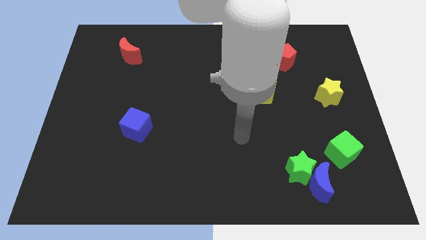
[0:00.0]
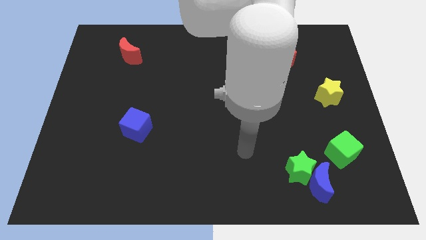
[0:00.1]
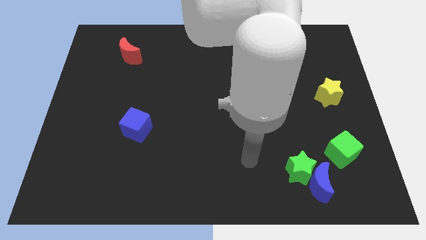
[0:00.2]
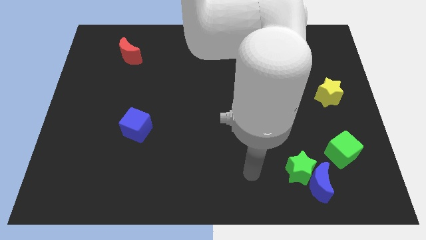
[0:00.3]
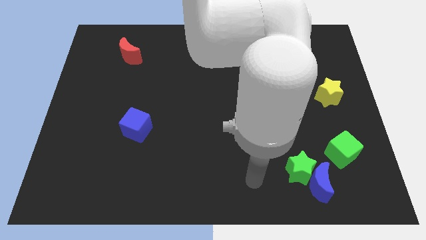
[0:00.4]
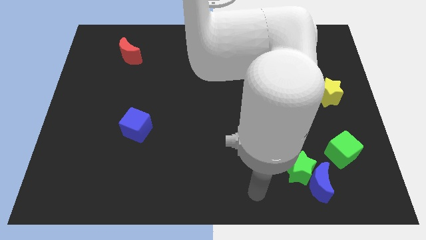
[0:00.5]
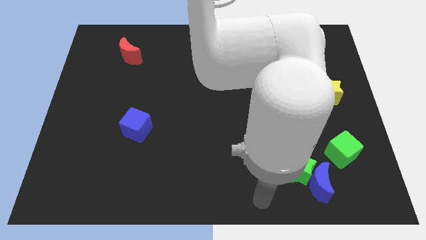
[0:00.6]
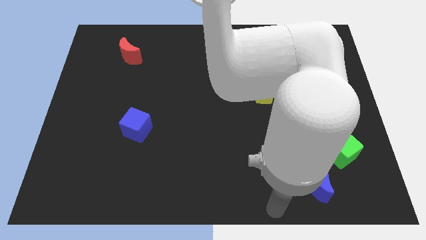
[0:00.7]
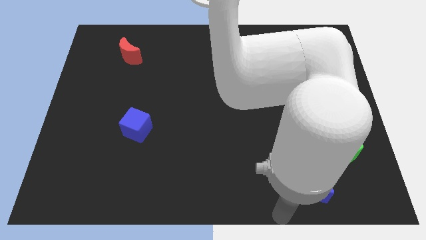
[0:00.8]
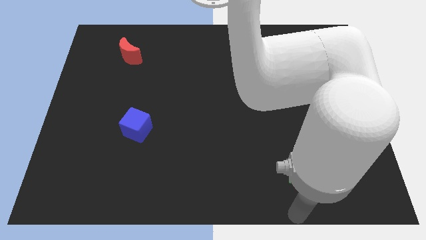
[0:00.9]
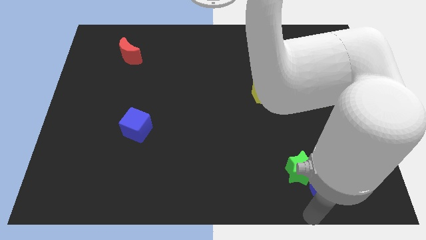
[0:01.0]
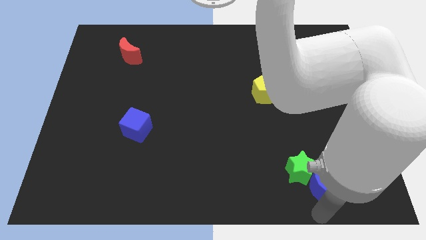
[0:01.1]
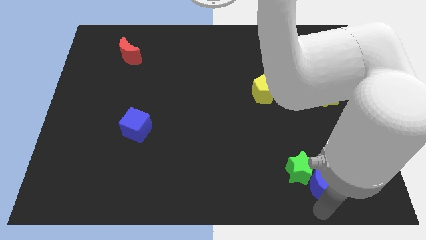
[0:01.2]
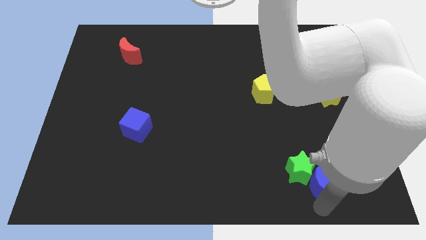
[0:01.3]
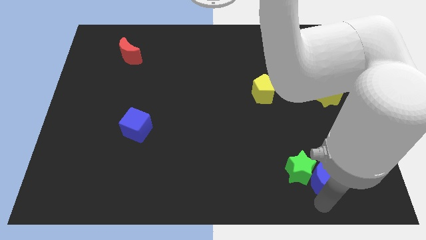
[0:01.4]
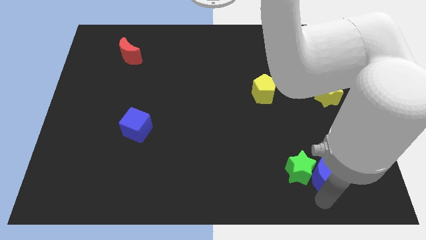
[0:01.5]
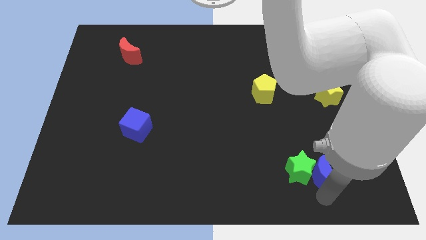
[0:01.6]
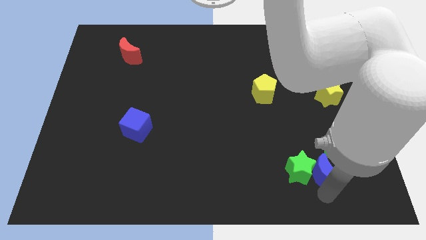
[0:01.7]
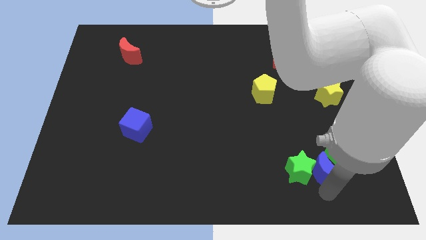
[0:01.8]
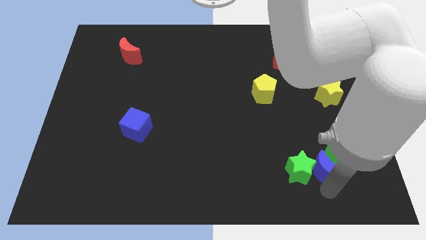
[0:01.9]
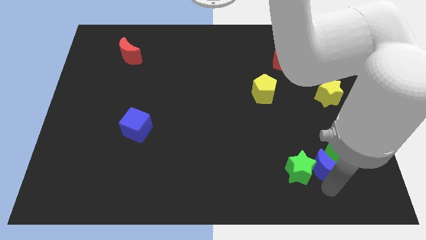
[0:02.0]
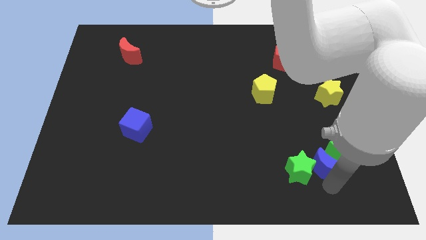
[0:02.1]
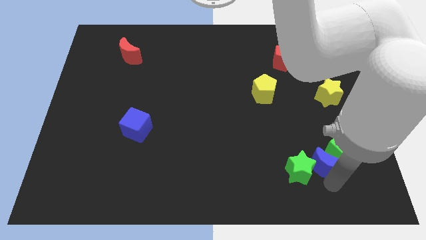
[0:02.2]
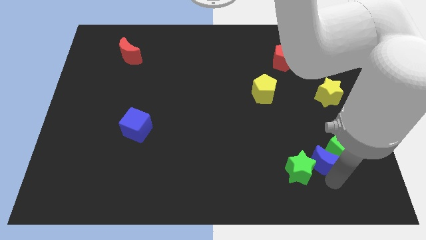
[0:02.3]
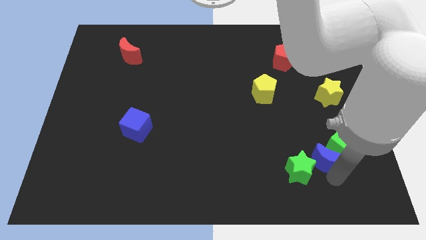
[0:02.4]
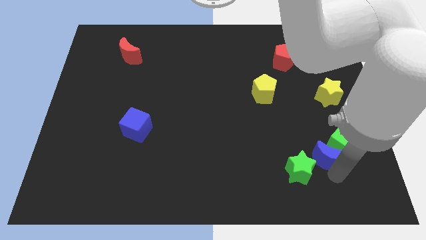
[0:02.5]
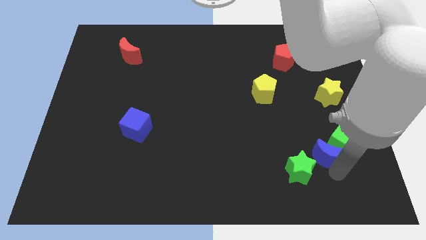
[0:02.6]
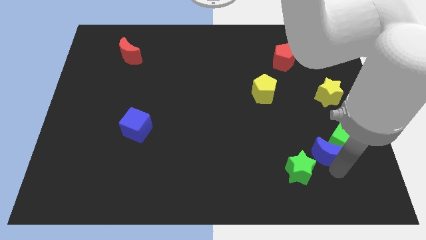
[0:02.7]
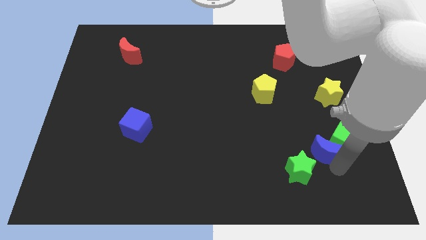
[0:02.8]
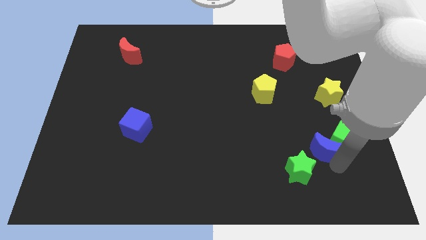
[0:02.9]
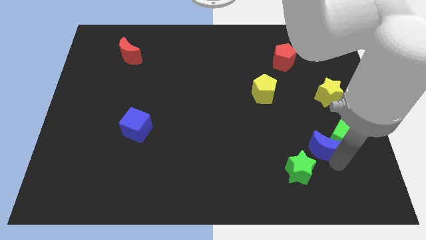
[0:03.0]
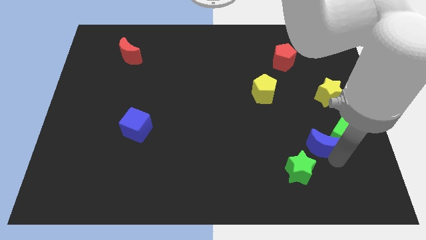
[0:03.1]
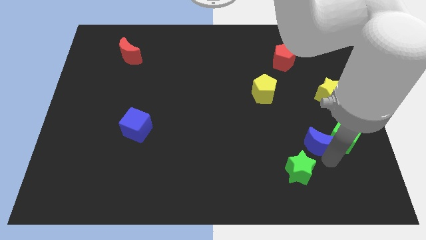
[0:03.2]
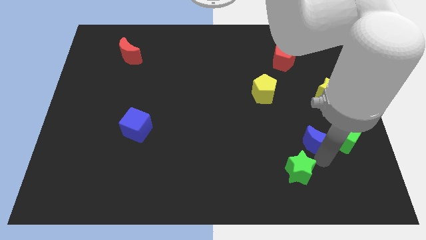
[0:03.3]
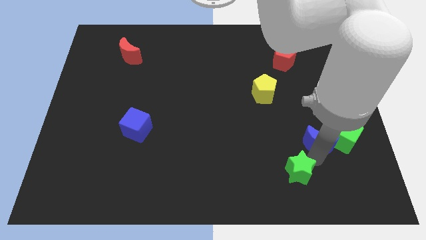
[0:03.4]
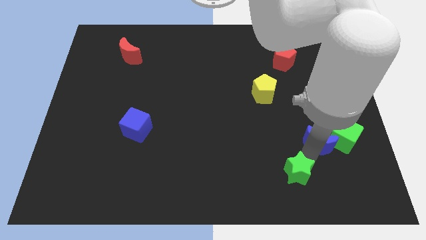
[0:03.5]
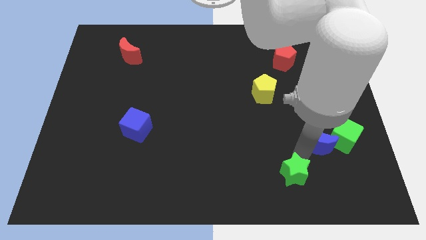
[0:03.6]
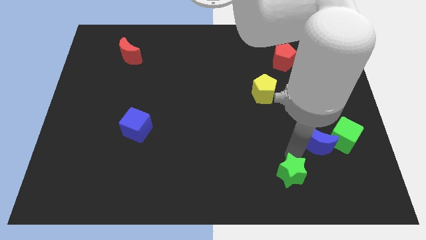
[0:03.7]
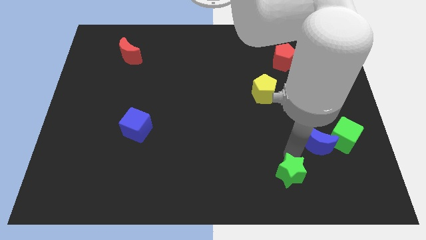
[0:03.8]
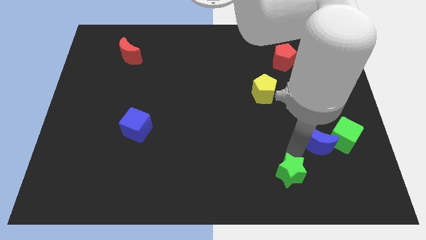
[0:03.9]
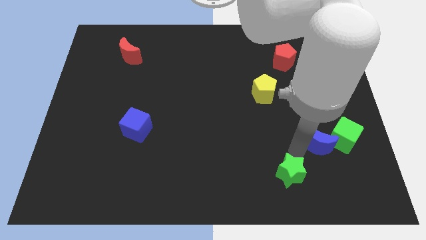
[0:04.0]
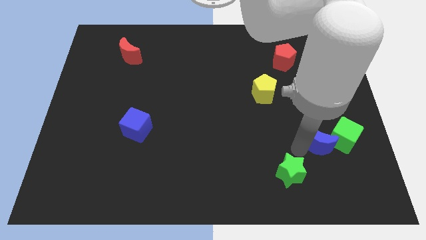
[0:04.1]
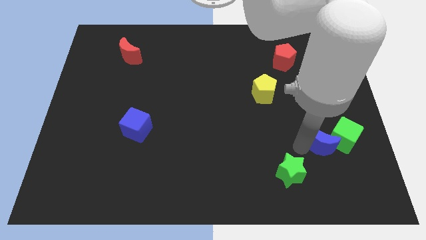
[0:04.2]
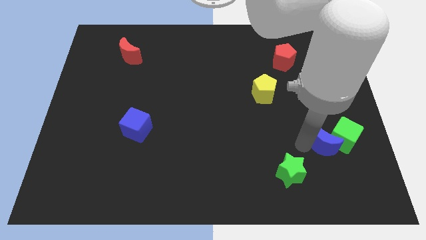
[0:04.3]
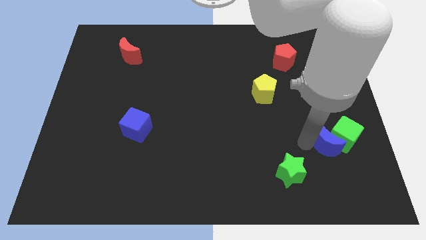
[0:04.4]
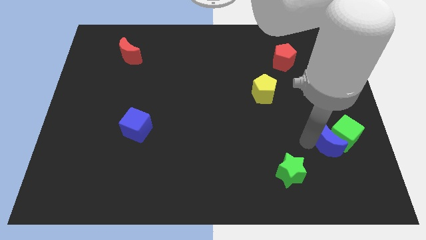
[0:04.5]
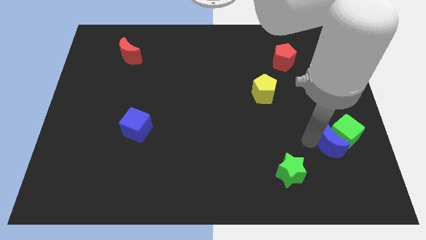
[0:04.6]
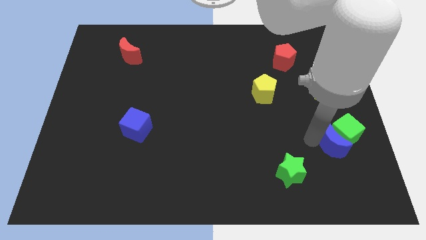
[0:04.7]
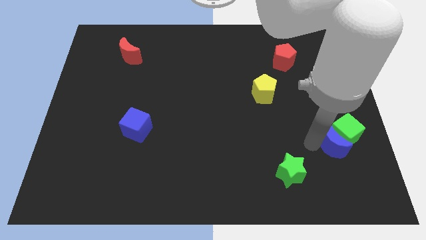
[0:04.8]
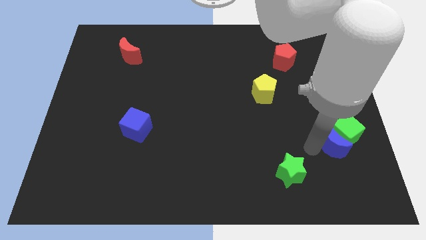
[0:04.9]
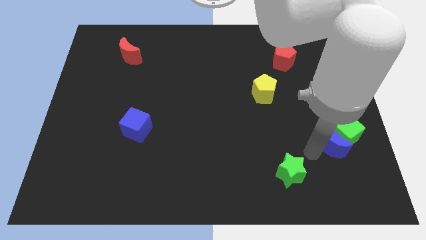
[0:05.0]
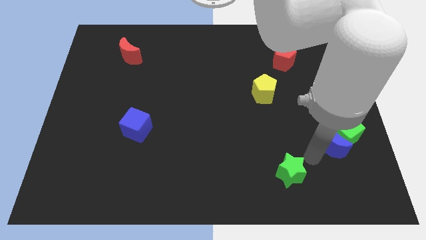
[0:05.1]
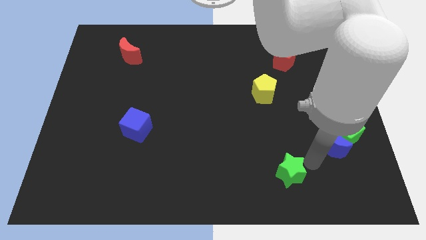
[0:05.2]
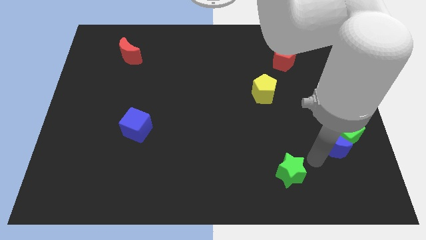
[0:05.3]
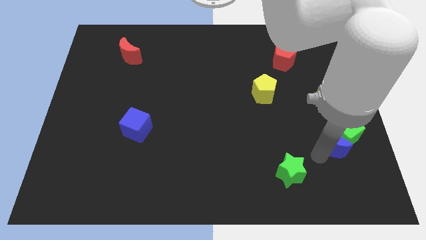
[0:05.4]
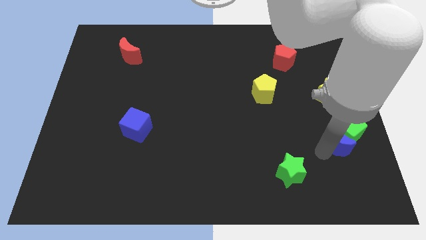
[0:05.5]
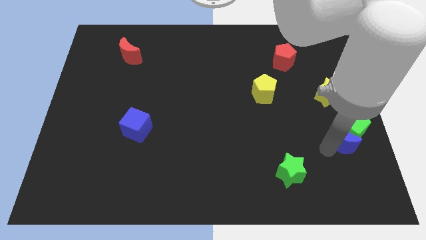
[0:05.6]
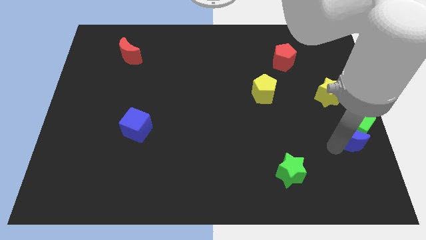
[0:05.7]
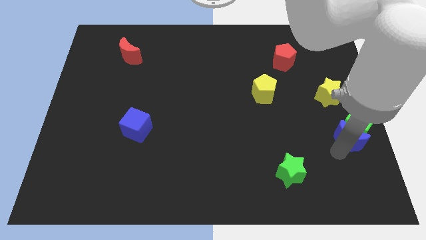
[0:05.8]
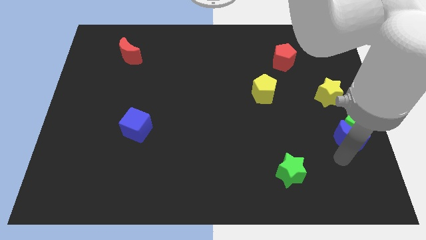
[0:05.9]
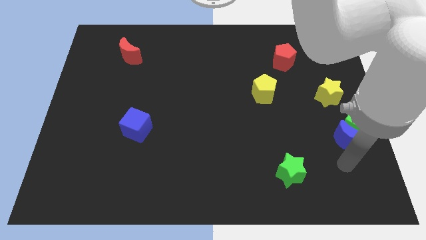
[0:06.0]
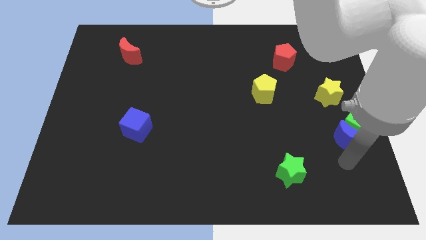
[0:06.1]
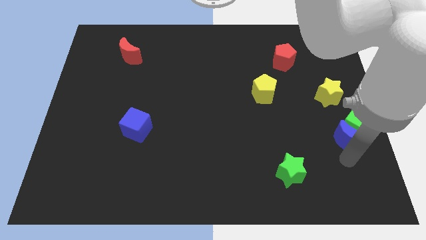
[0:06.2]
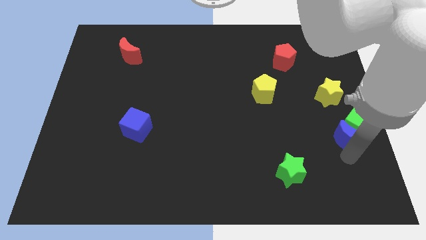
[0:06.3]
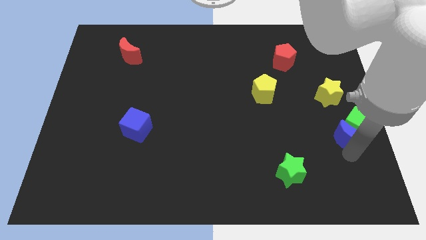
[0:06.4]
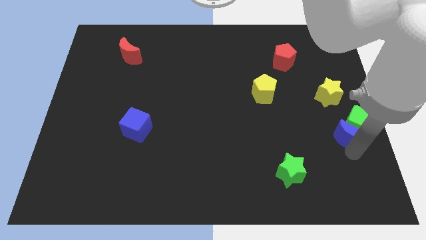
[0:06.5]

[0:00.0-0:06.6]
put the blue moon to the right side of the board

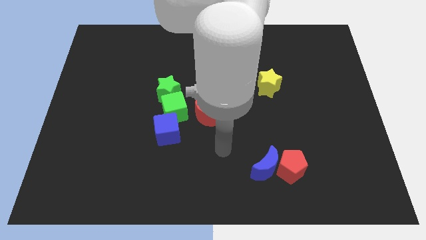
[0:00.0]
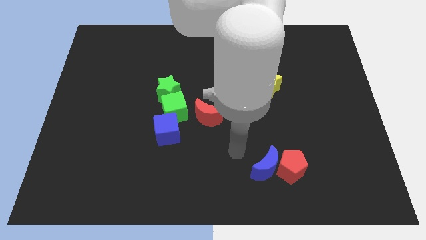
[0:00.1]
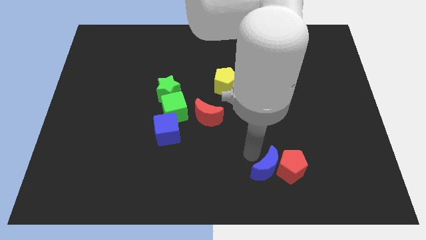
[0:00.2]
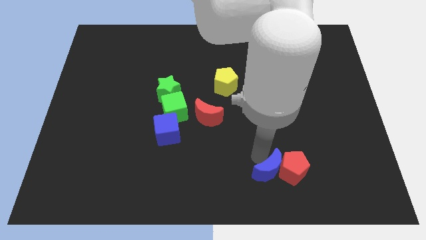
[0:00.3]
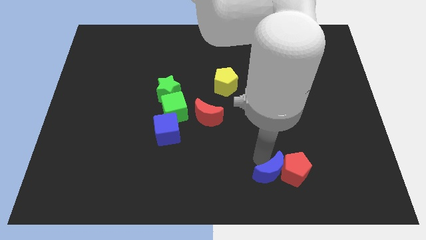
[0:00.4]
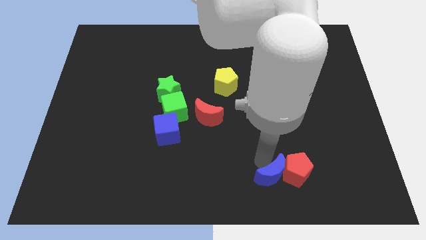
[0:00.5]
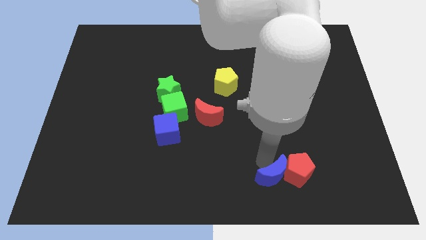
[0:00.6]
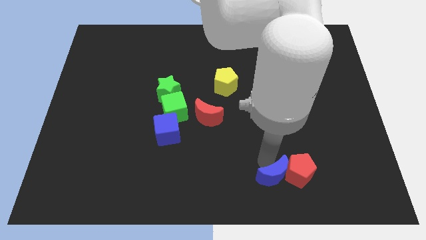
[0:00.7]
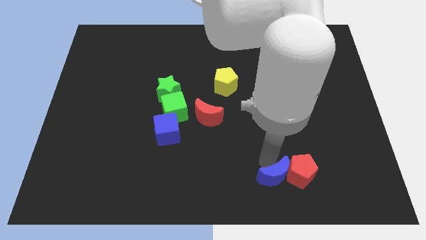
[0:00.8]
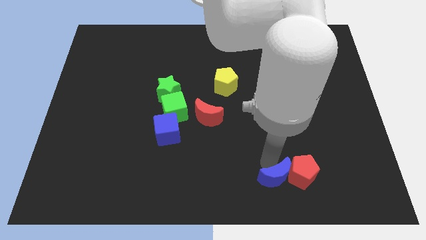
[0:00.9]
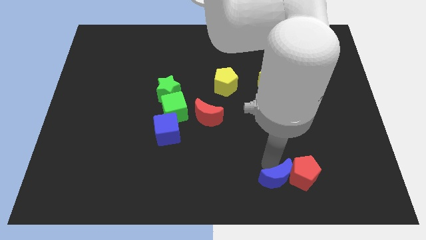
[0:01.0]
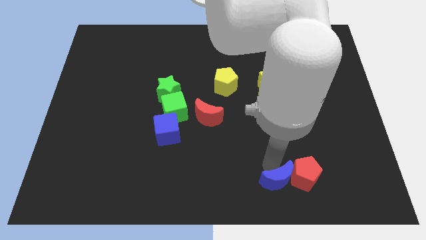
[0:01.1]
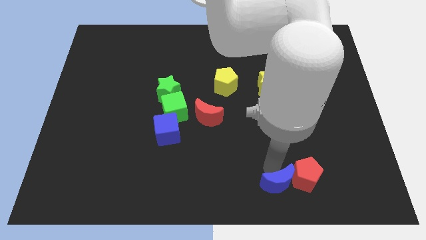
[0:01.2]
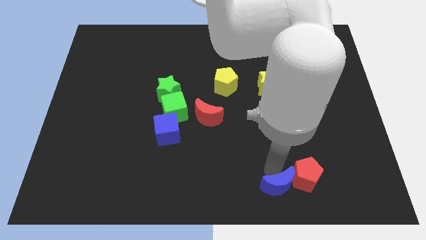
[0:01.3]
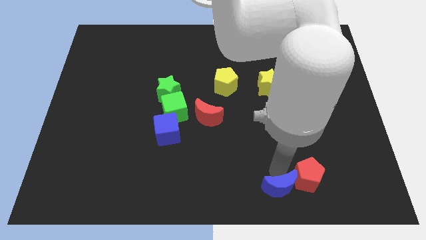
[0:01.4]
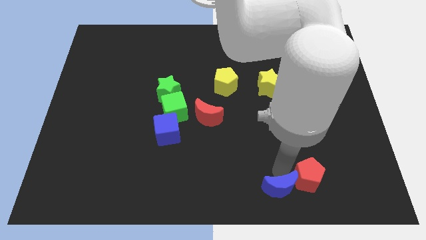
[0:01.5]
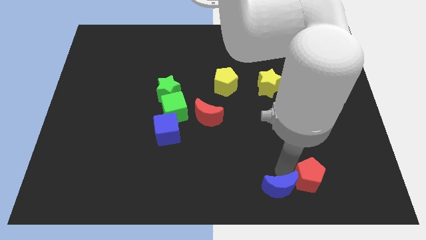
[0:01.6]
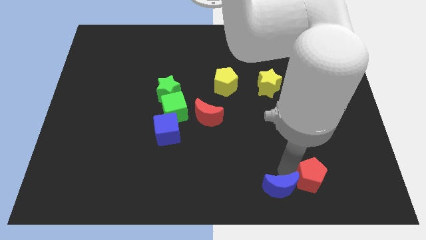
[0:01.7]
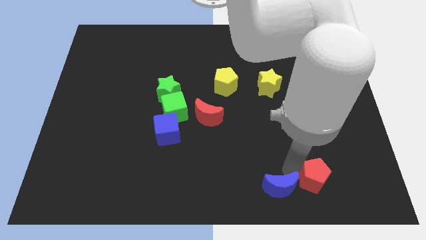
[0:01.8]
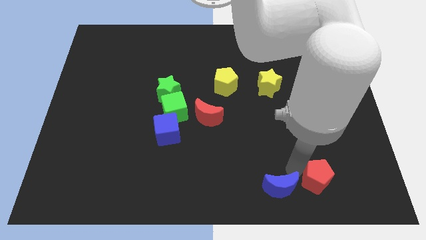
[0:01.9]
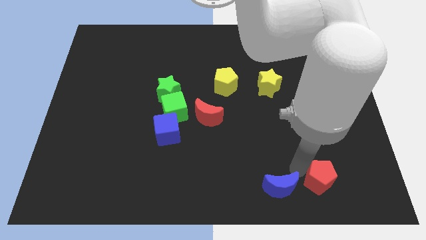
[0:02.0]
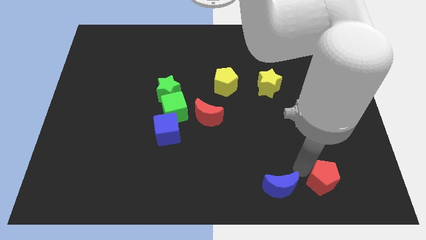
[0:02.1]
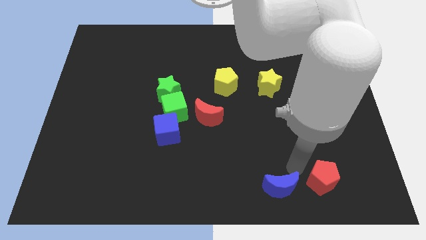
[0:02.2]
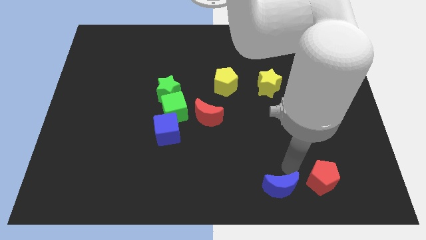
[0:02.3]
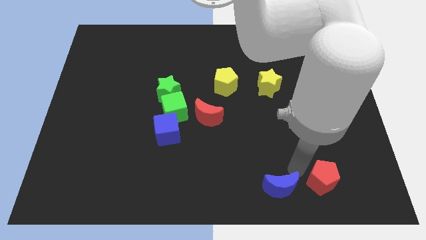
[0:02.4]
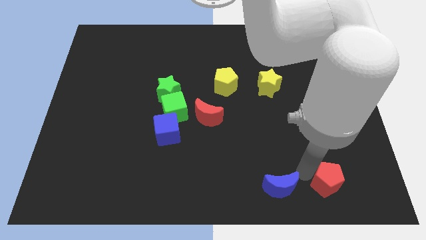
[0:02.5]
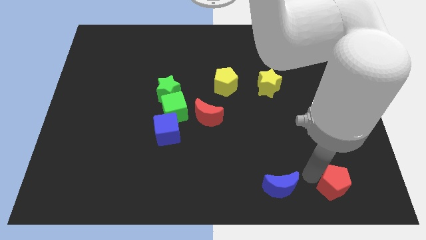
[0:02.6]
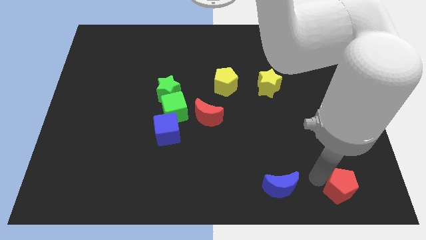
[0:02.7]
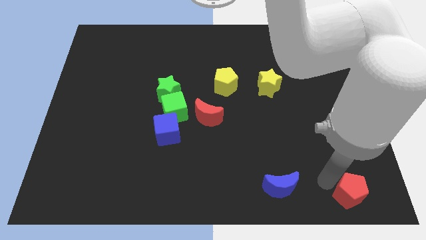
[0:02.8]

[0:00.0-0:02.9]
move the red pentagon to the bottom right corner
